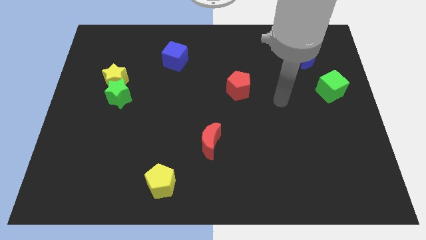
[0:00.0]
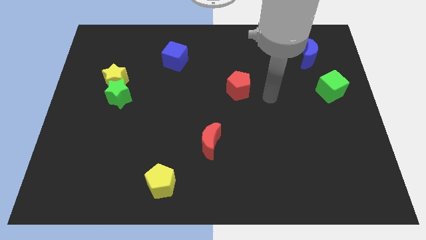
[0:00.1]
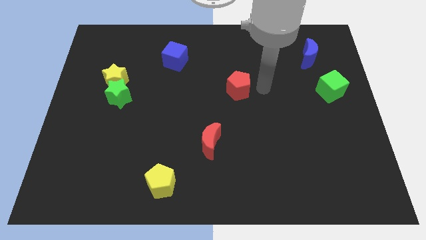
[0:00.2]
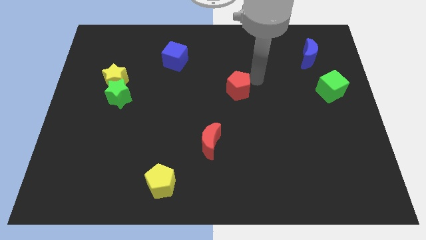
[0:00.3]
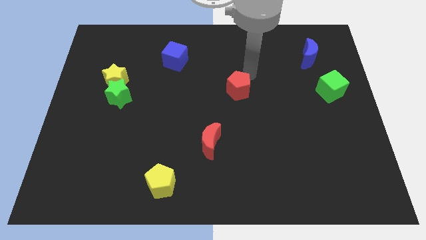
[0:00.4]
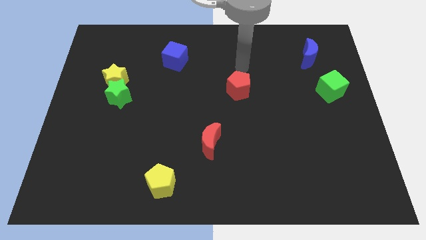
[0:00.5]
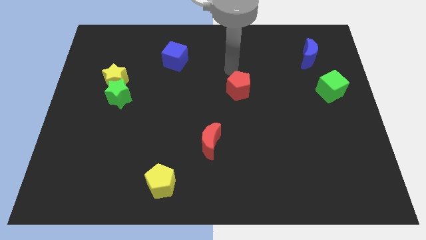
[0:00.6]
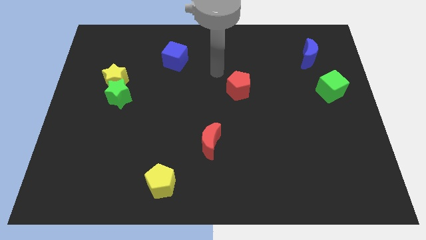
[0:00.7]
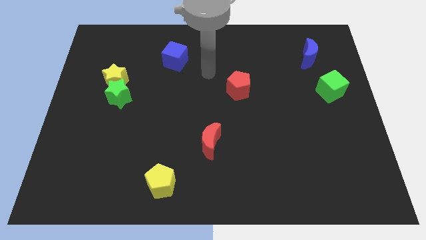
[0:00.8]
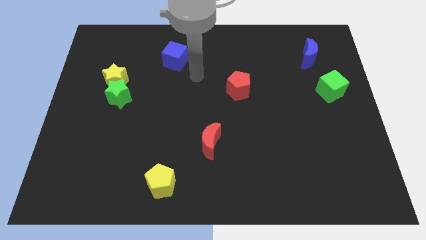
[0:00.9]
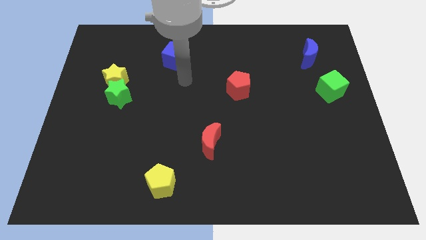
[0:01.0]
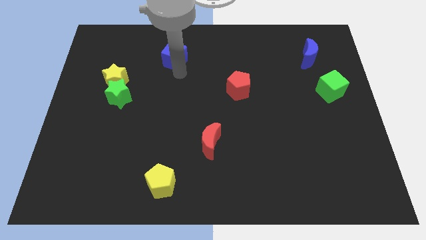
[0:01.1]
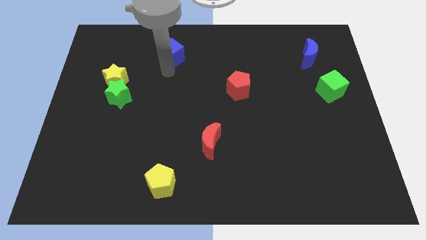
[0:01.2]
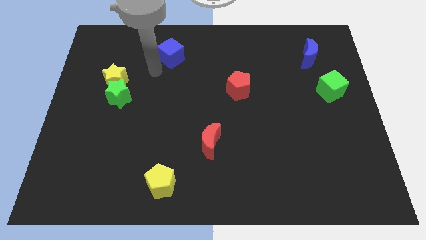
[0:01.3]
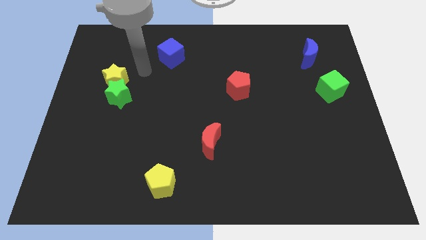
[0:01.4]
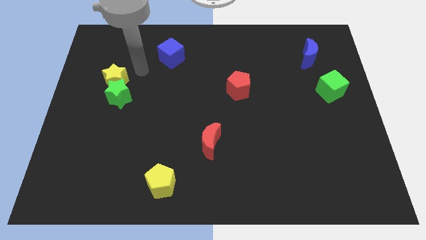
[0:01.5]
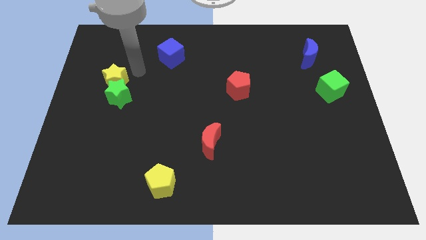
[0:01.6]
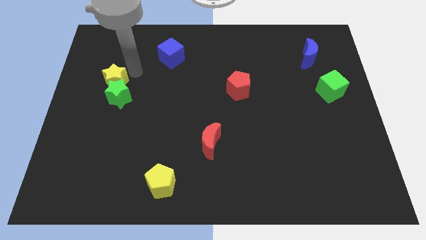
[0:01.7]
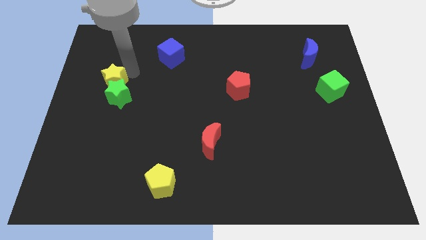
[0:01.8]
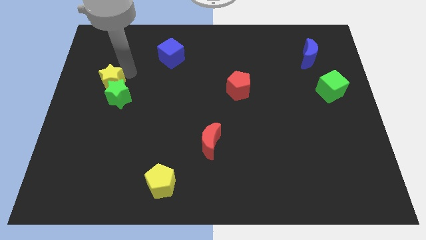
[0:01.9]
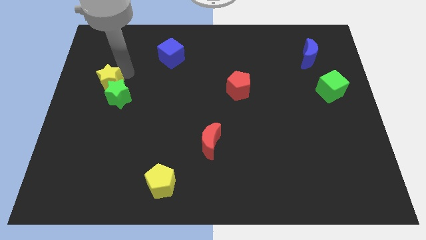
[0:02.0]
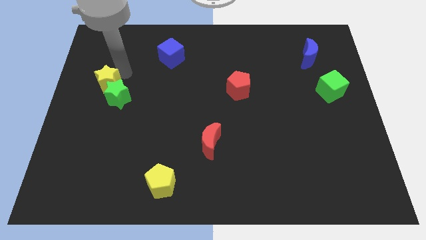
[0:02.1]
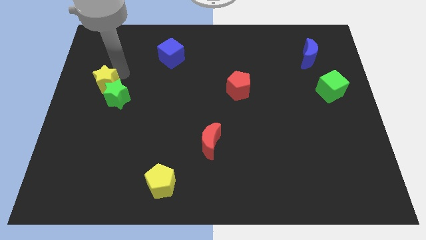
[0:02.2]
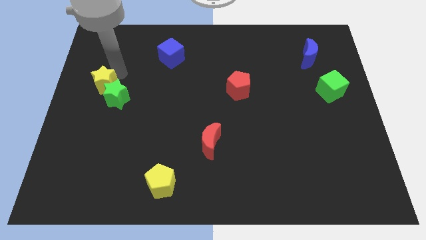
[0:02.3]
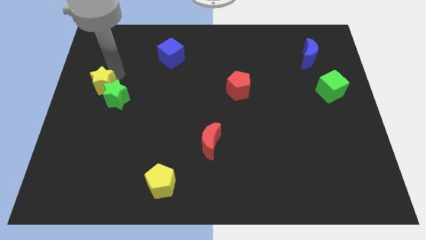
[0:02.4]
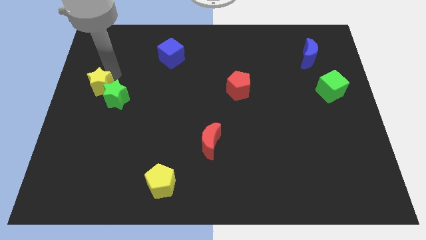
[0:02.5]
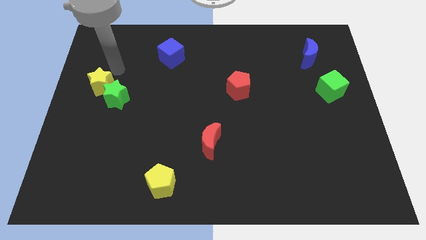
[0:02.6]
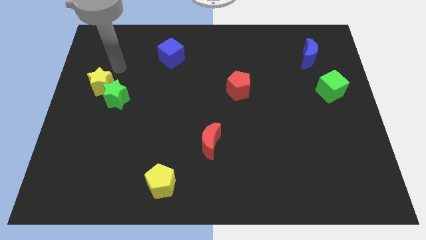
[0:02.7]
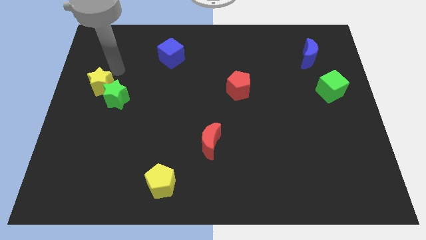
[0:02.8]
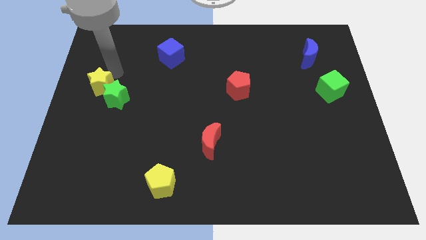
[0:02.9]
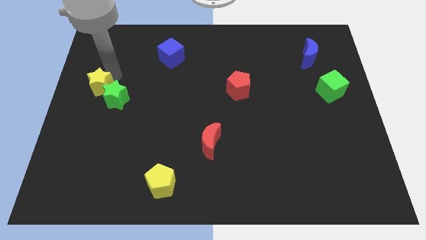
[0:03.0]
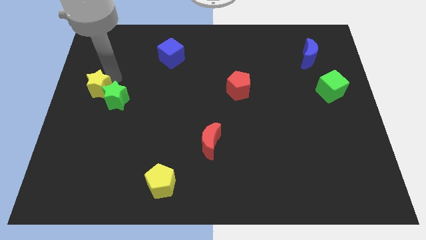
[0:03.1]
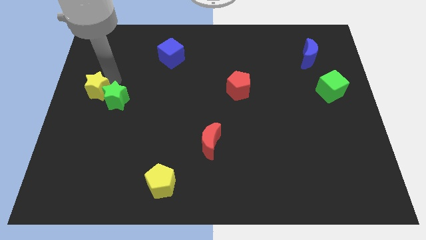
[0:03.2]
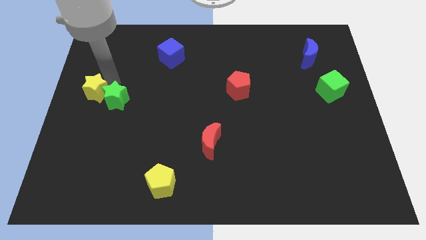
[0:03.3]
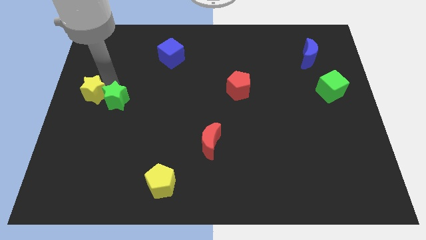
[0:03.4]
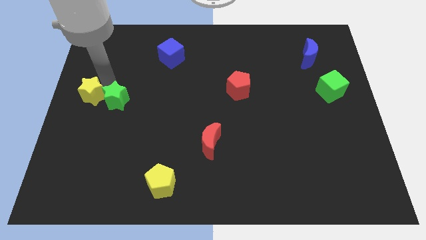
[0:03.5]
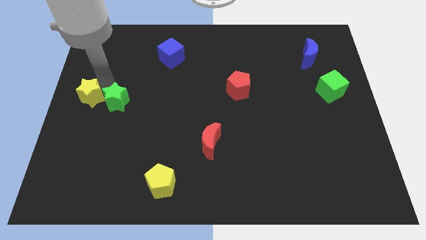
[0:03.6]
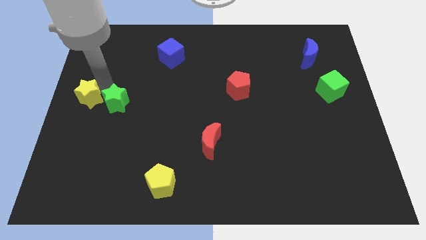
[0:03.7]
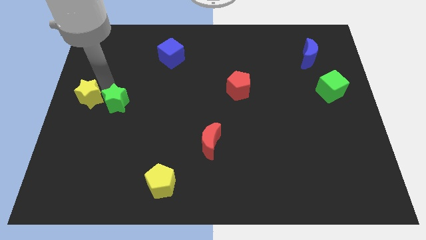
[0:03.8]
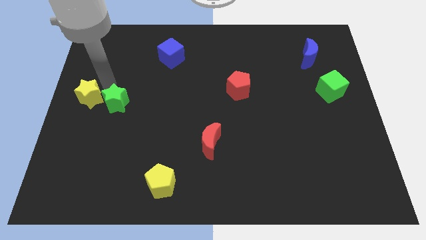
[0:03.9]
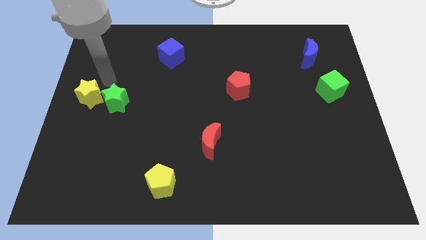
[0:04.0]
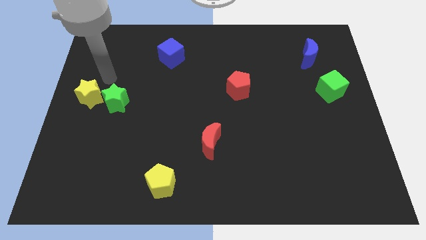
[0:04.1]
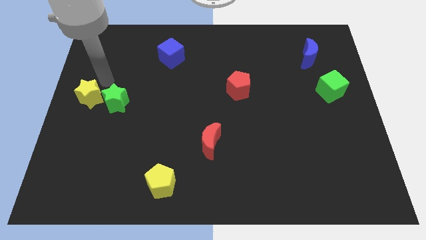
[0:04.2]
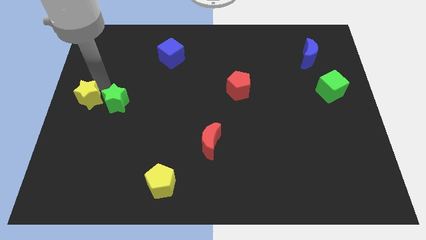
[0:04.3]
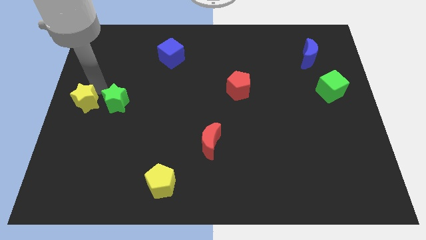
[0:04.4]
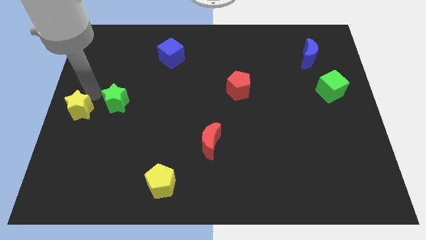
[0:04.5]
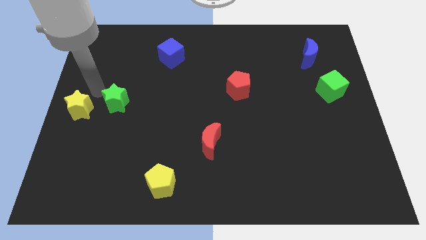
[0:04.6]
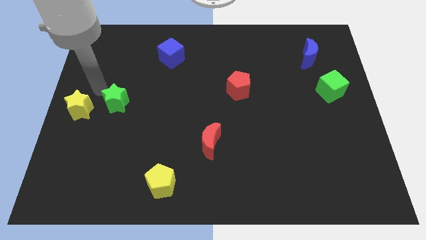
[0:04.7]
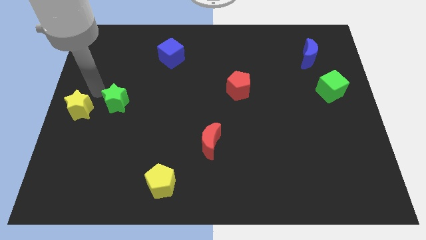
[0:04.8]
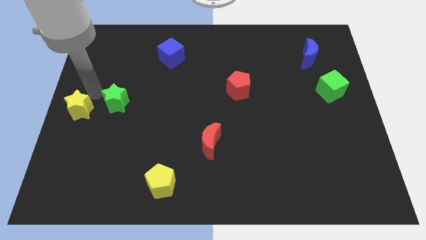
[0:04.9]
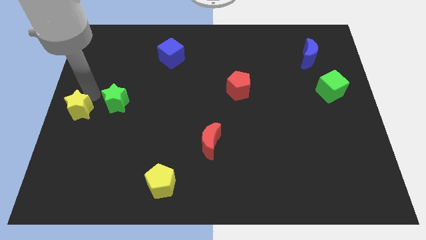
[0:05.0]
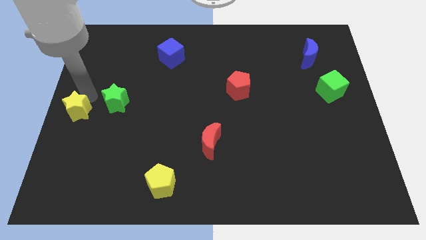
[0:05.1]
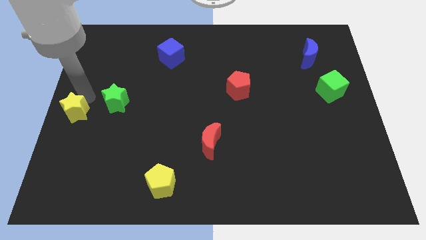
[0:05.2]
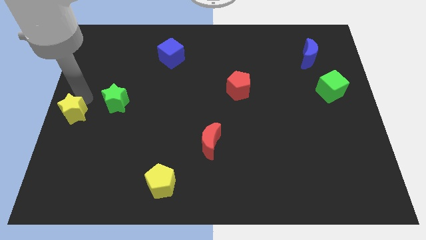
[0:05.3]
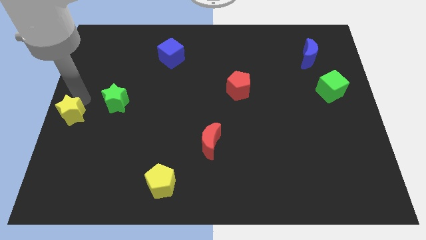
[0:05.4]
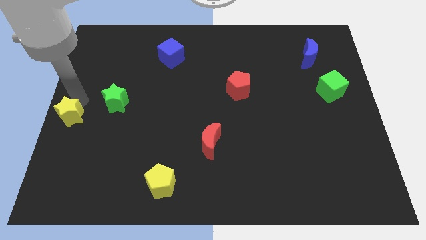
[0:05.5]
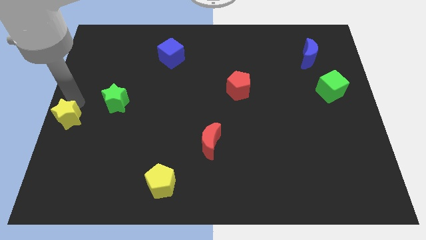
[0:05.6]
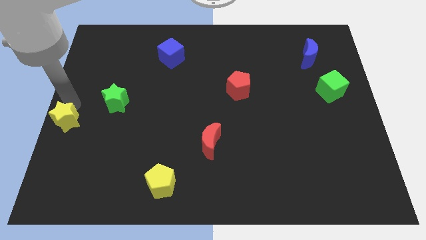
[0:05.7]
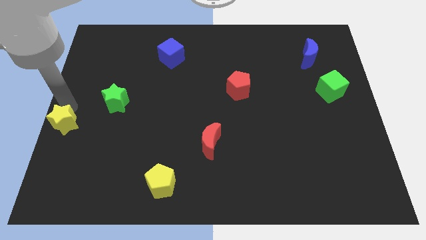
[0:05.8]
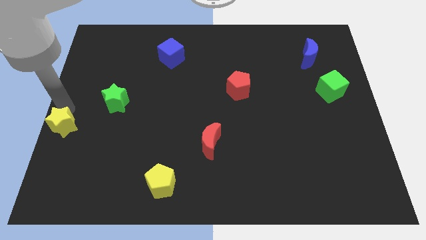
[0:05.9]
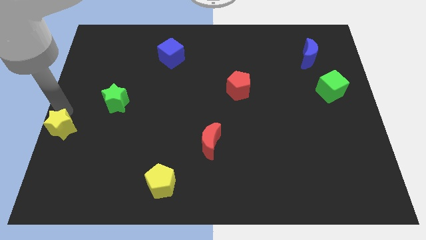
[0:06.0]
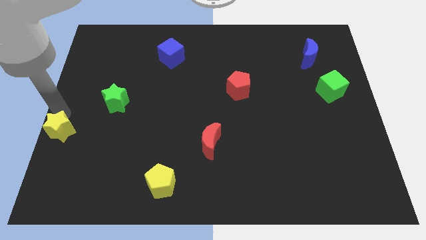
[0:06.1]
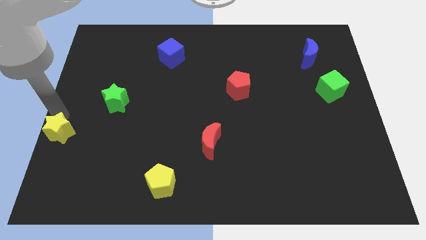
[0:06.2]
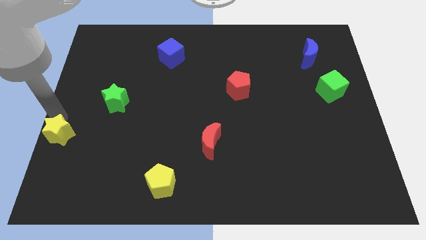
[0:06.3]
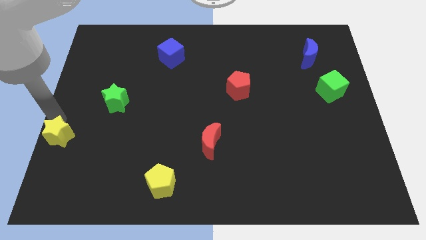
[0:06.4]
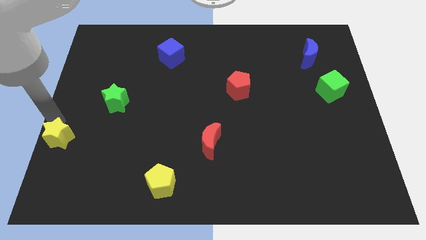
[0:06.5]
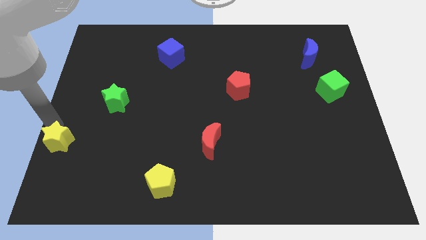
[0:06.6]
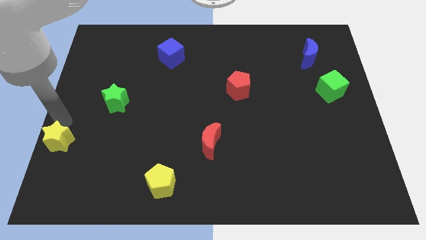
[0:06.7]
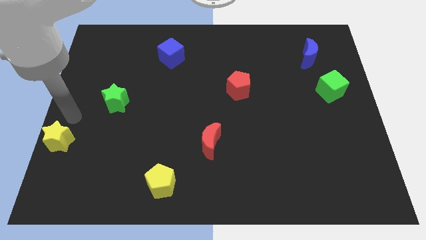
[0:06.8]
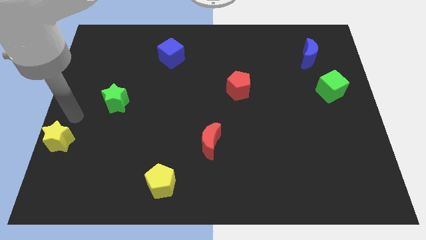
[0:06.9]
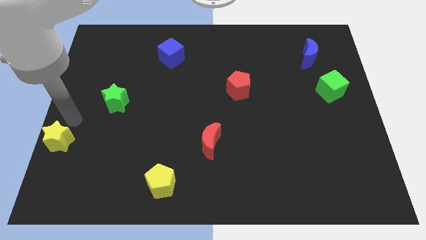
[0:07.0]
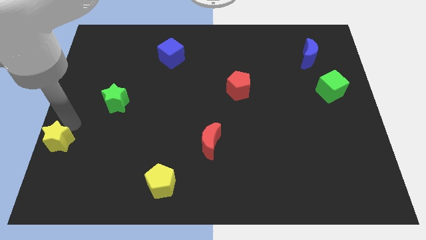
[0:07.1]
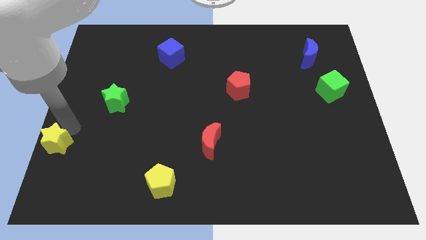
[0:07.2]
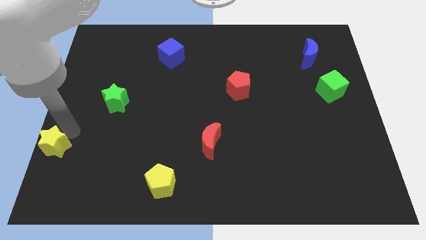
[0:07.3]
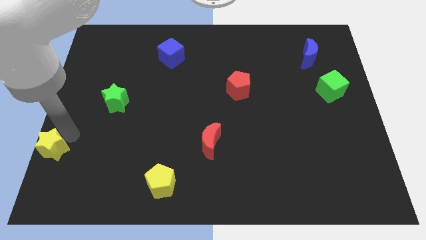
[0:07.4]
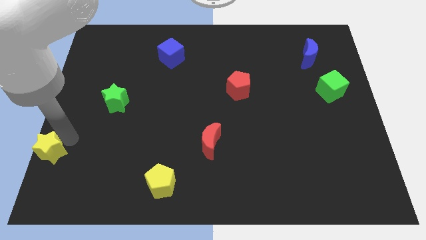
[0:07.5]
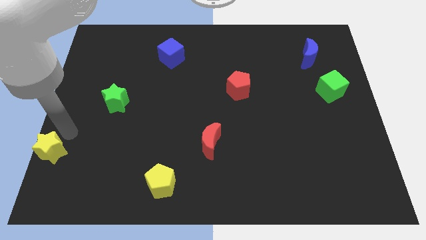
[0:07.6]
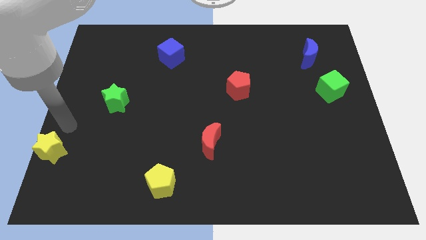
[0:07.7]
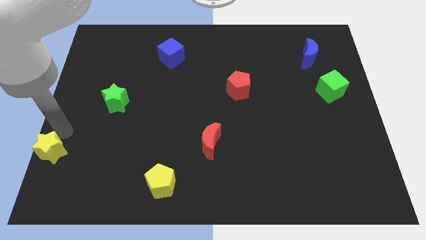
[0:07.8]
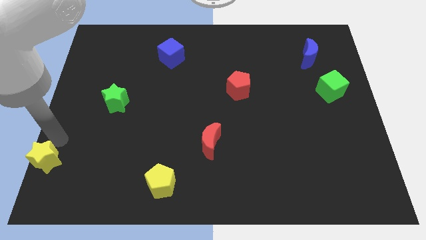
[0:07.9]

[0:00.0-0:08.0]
move the yellow star to the bottom left
